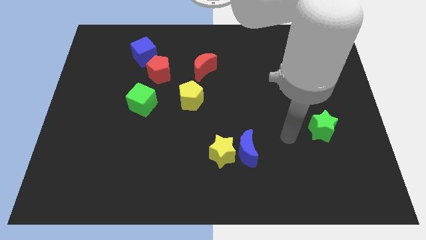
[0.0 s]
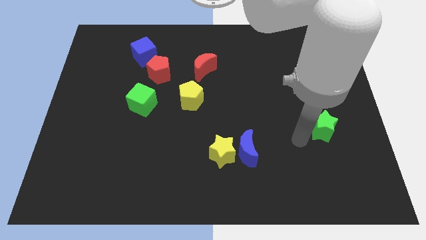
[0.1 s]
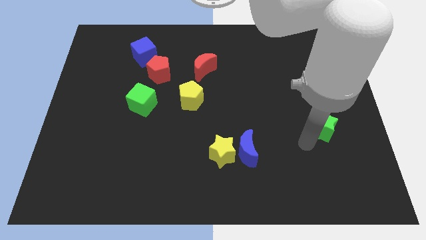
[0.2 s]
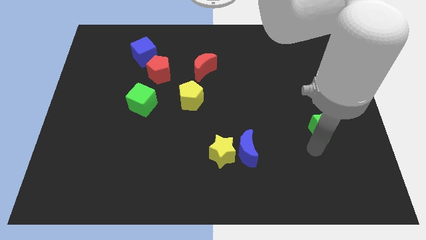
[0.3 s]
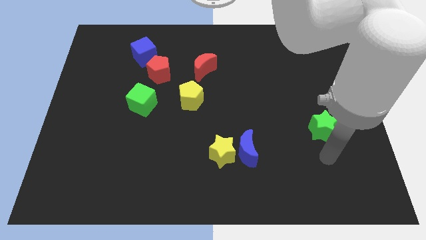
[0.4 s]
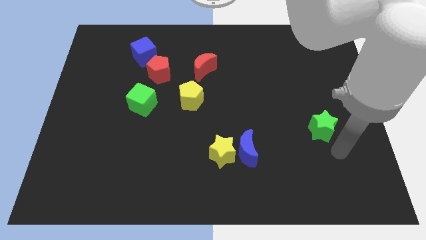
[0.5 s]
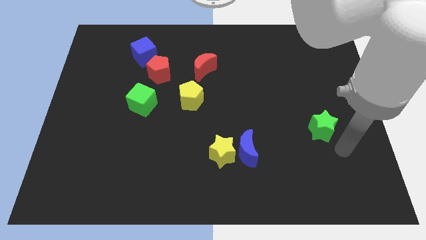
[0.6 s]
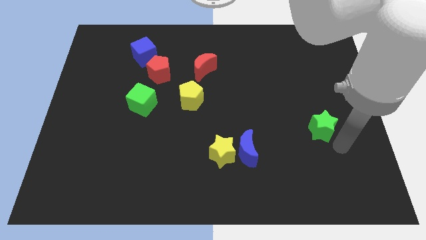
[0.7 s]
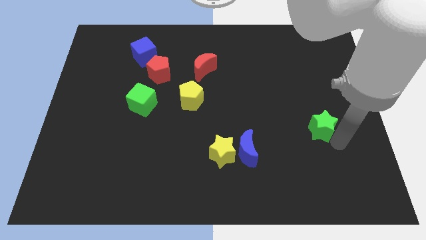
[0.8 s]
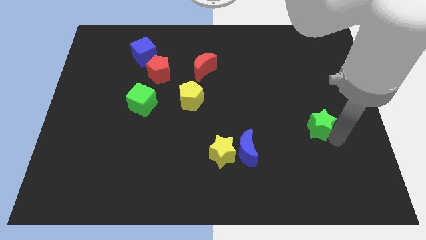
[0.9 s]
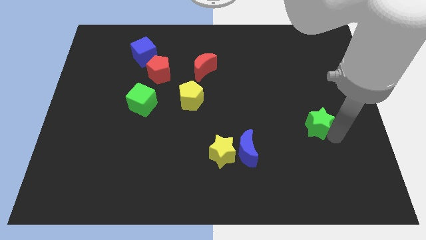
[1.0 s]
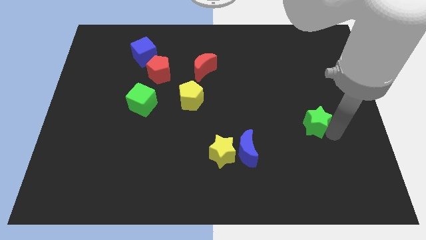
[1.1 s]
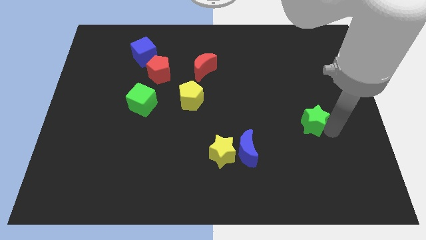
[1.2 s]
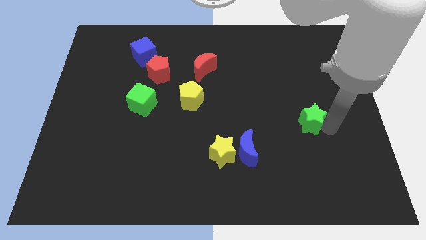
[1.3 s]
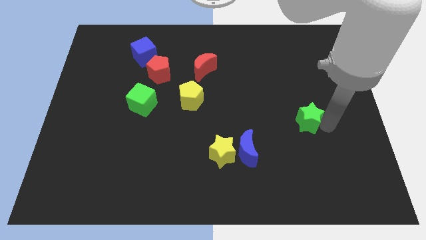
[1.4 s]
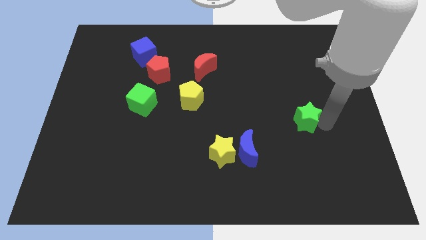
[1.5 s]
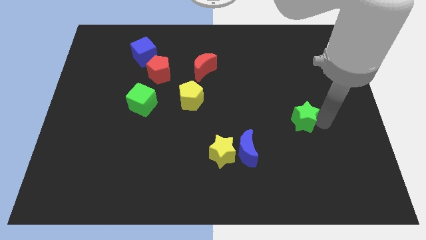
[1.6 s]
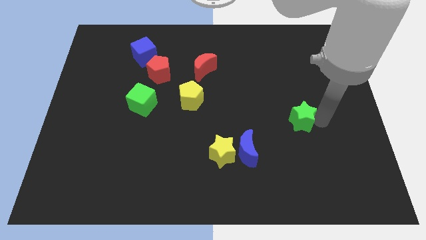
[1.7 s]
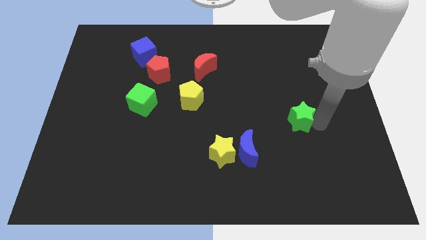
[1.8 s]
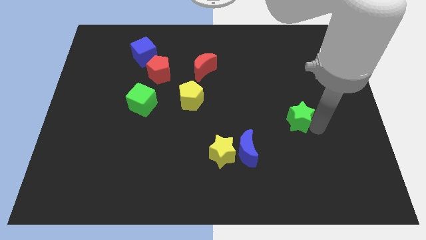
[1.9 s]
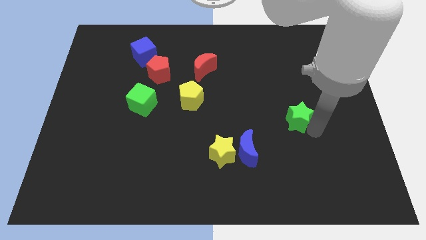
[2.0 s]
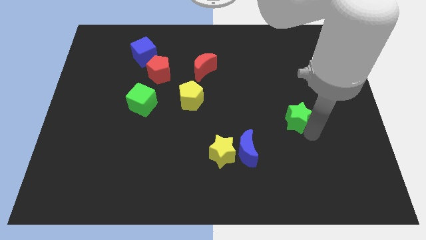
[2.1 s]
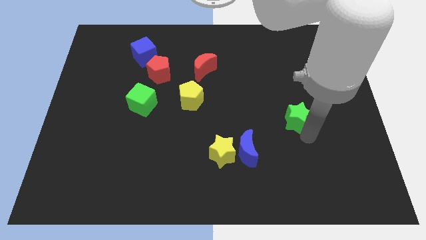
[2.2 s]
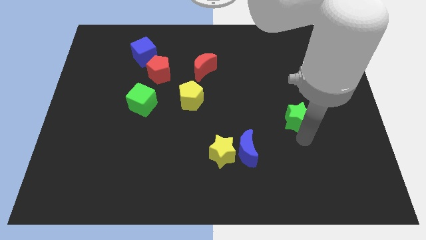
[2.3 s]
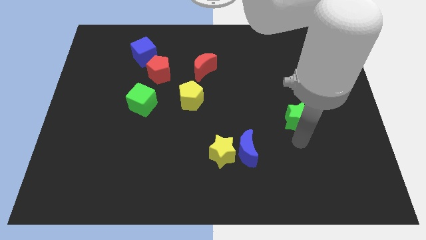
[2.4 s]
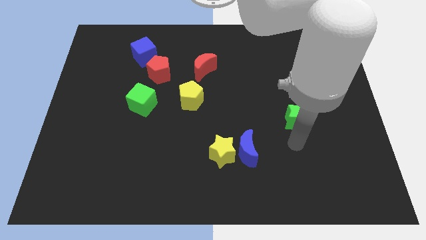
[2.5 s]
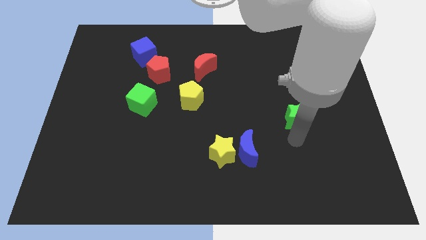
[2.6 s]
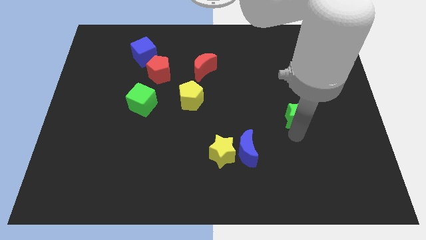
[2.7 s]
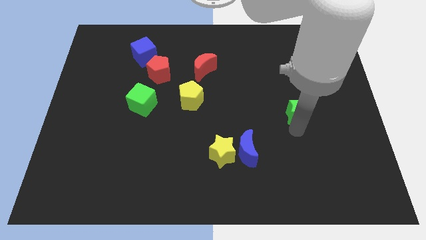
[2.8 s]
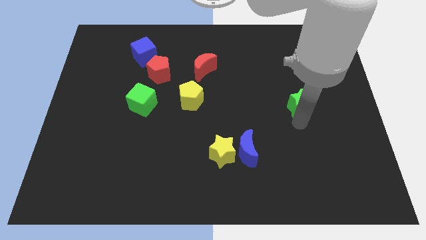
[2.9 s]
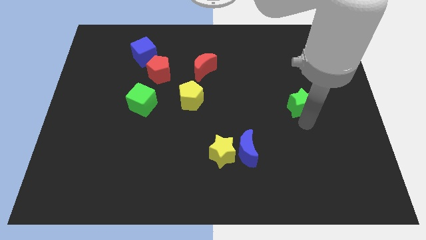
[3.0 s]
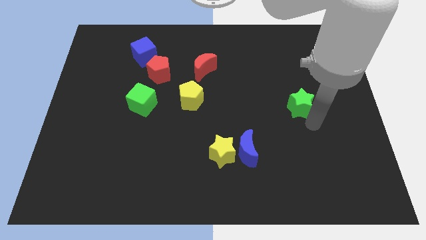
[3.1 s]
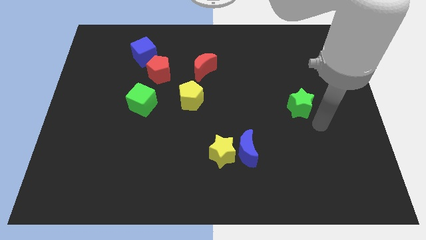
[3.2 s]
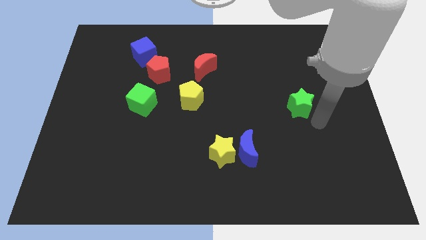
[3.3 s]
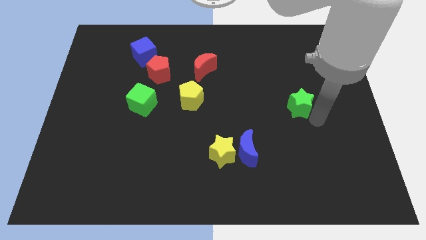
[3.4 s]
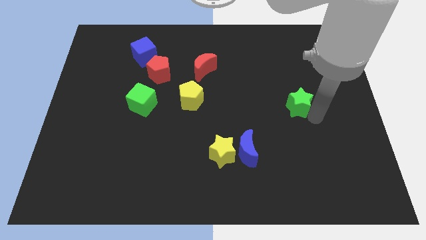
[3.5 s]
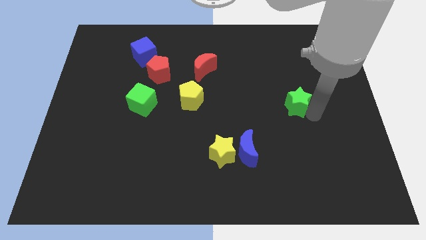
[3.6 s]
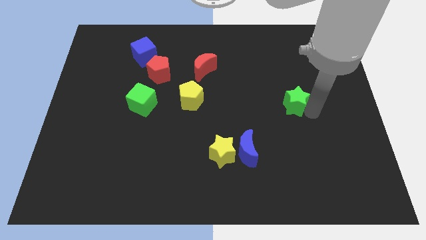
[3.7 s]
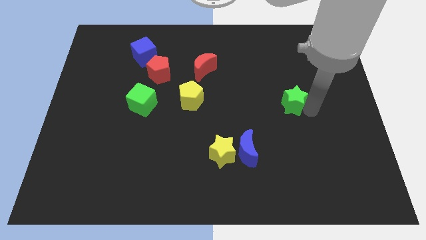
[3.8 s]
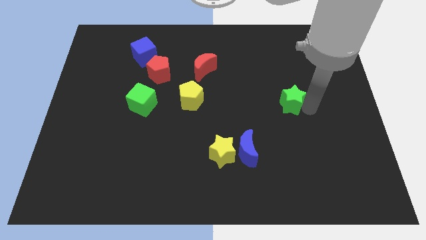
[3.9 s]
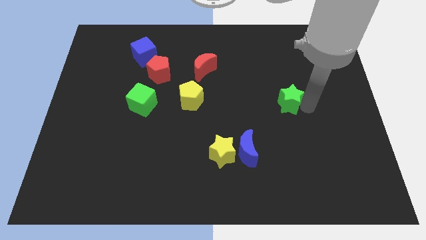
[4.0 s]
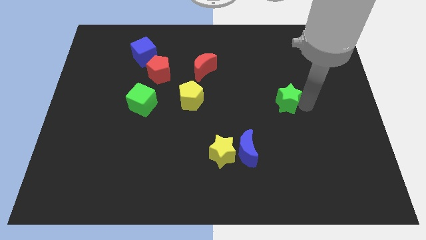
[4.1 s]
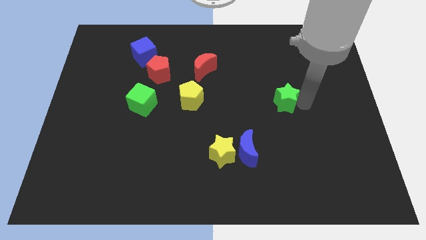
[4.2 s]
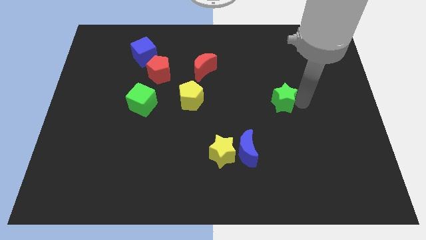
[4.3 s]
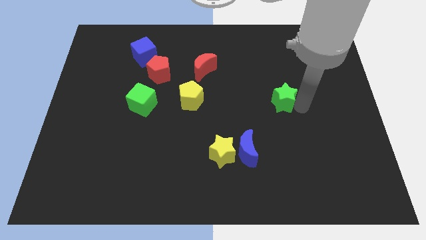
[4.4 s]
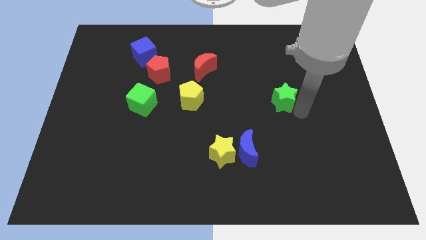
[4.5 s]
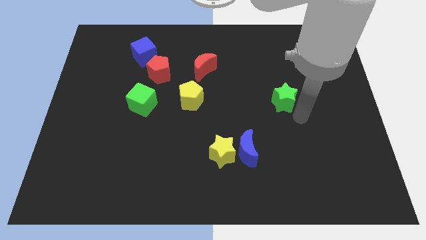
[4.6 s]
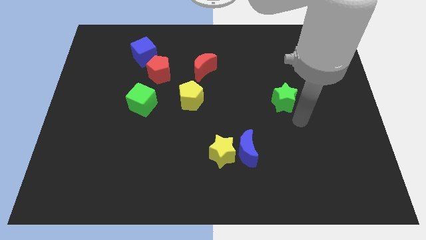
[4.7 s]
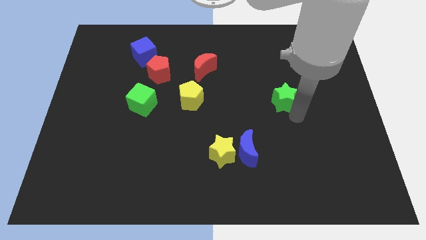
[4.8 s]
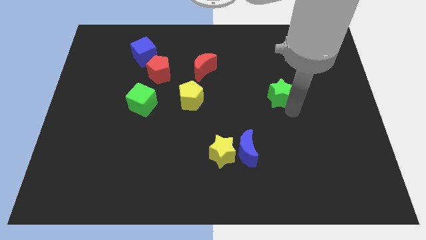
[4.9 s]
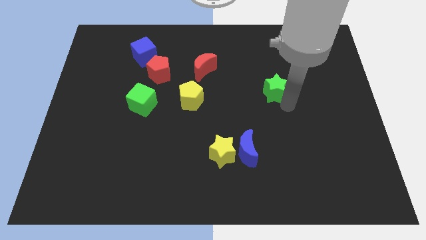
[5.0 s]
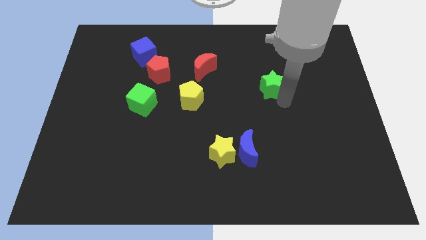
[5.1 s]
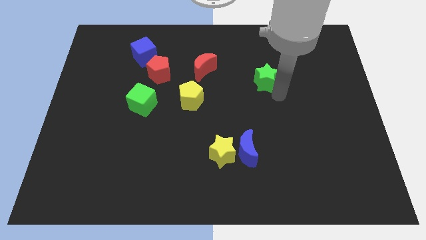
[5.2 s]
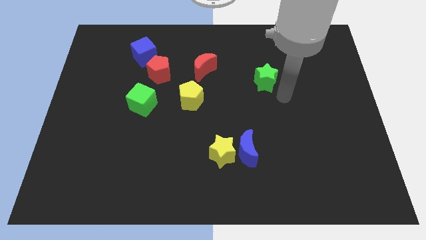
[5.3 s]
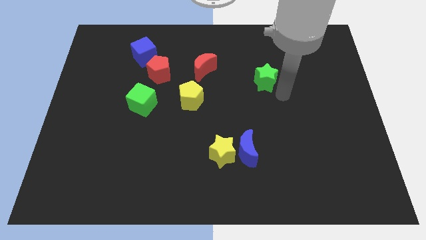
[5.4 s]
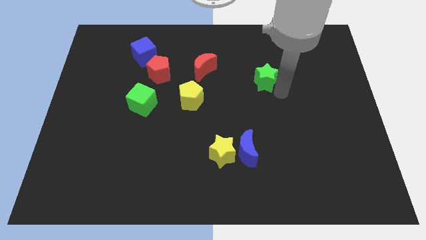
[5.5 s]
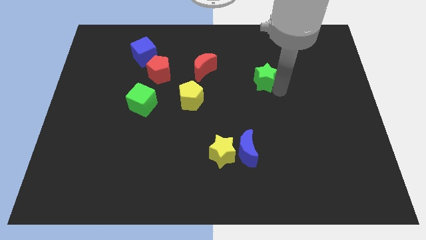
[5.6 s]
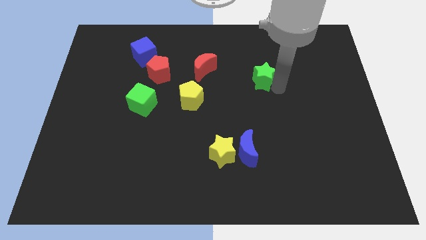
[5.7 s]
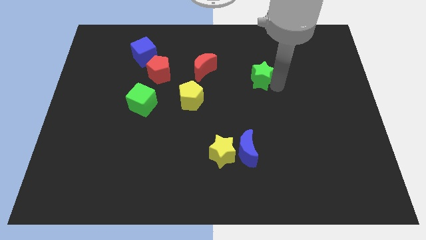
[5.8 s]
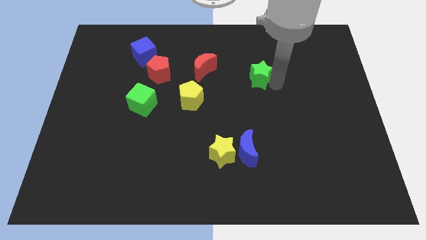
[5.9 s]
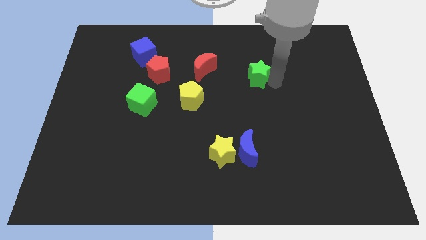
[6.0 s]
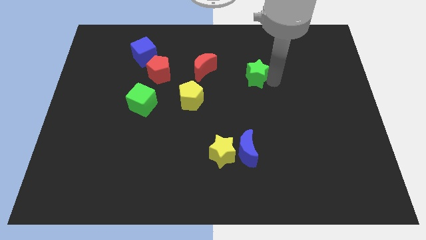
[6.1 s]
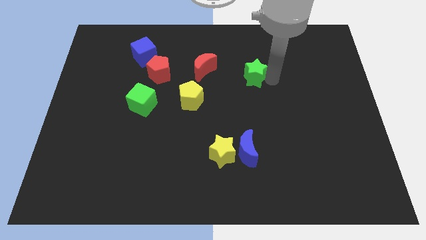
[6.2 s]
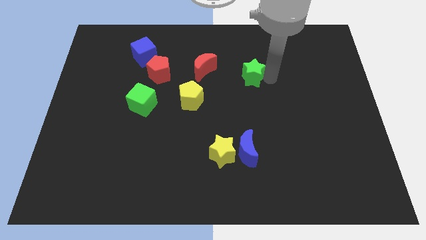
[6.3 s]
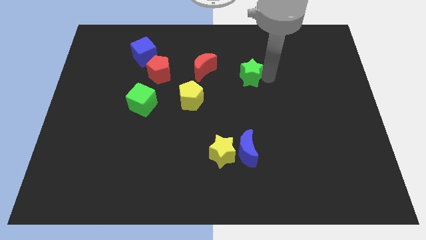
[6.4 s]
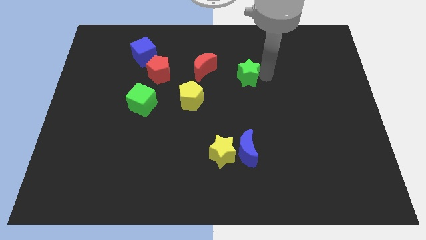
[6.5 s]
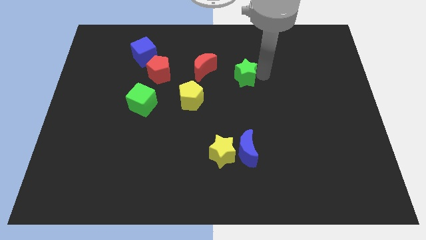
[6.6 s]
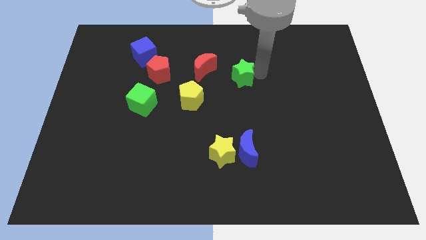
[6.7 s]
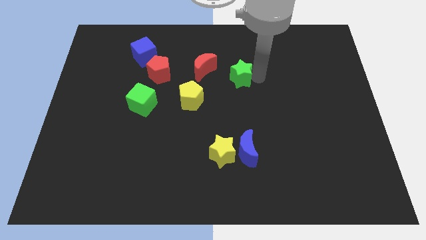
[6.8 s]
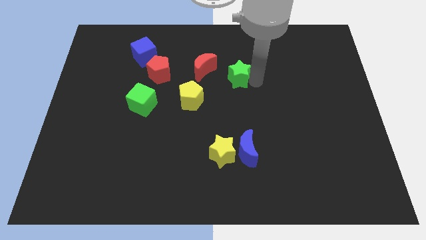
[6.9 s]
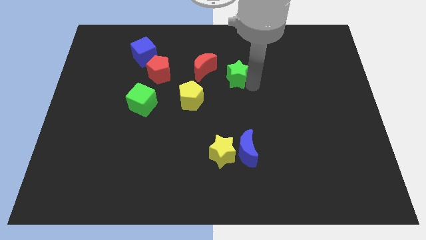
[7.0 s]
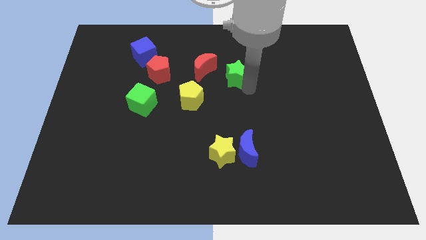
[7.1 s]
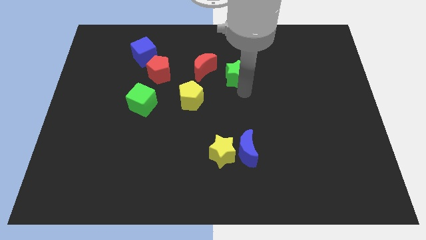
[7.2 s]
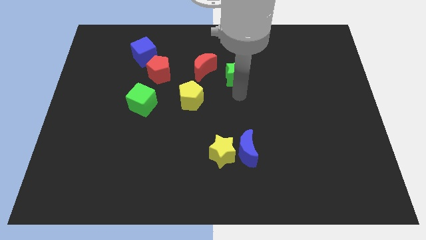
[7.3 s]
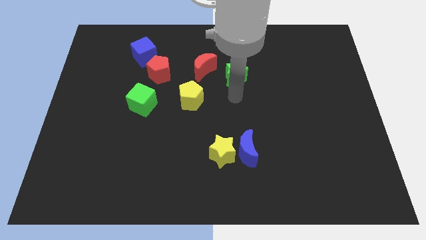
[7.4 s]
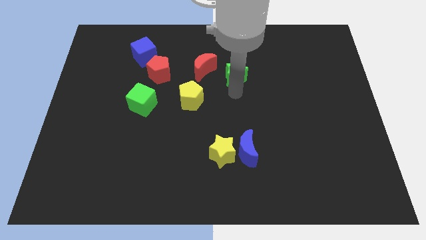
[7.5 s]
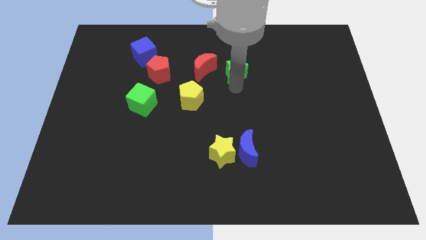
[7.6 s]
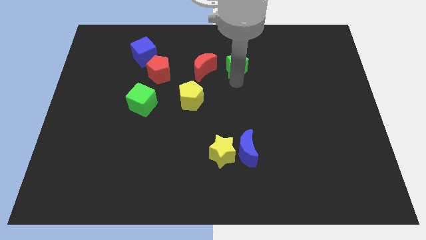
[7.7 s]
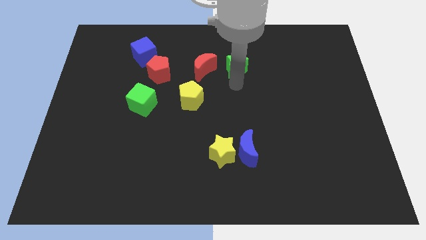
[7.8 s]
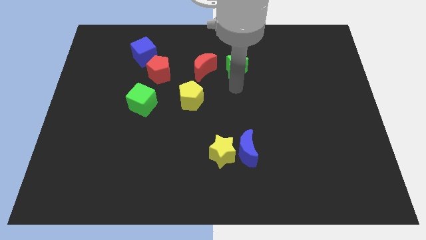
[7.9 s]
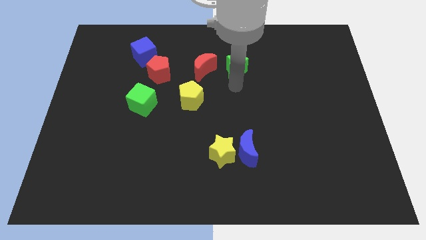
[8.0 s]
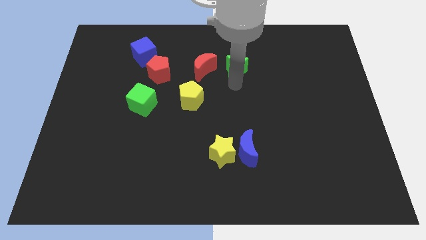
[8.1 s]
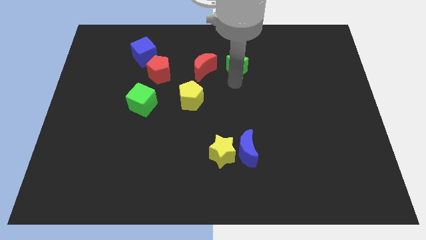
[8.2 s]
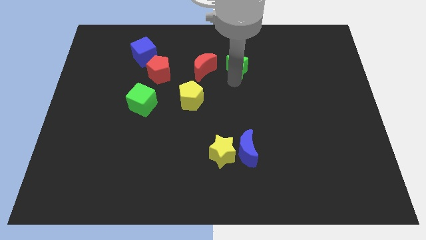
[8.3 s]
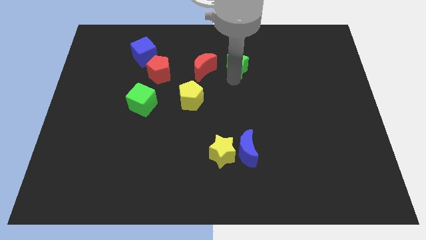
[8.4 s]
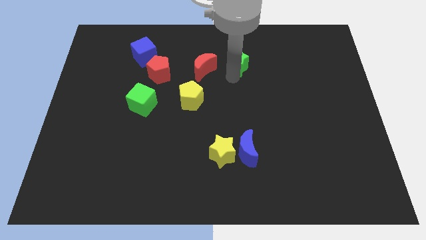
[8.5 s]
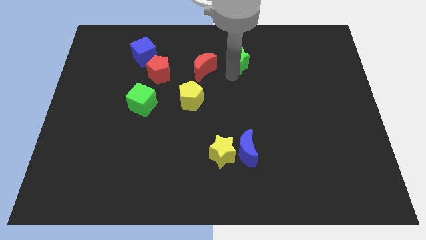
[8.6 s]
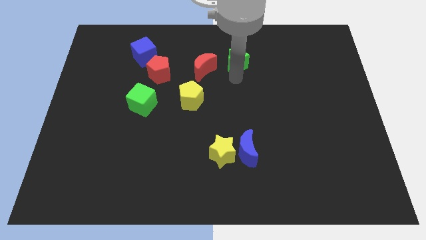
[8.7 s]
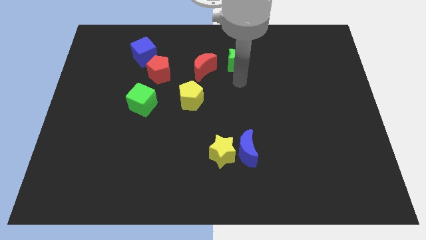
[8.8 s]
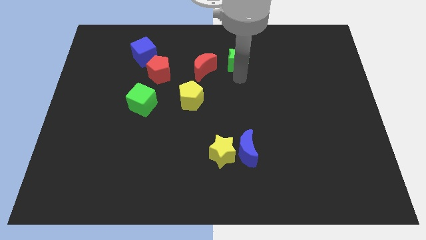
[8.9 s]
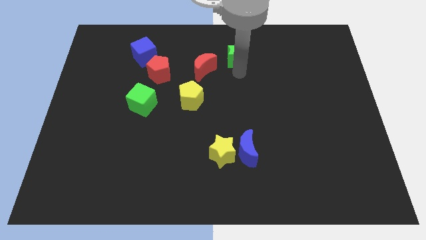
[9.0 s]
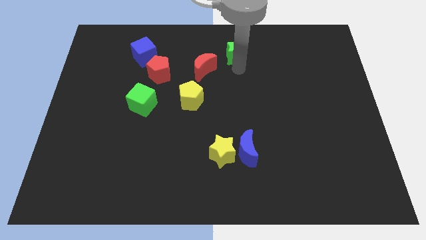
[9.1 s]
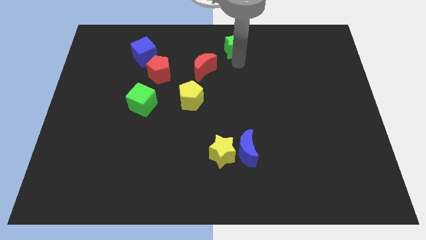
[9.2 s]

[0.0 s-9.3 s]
push the green star to the top
